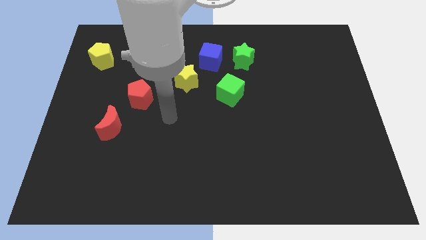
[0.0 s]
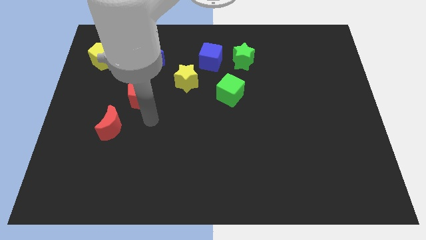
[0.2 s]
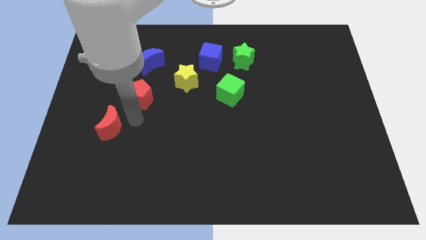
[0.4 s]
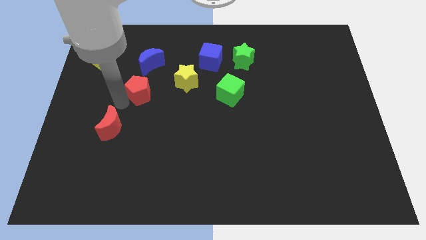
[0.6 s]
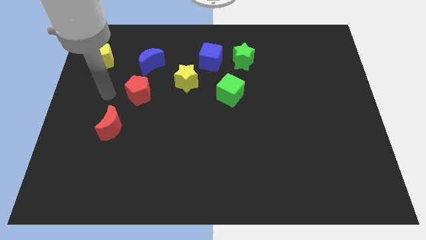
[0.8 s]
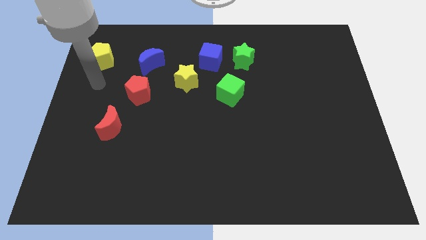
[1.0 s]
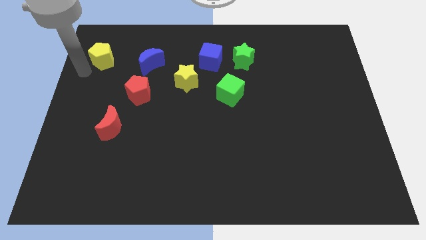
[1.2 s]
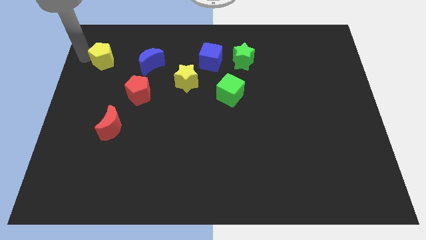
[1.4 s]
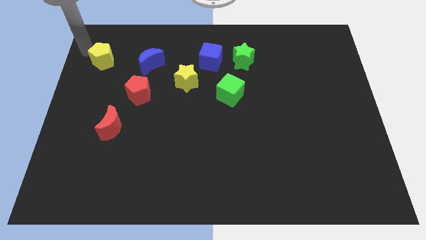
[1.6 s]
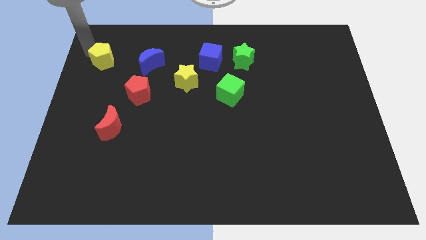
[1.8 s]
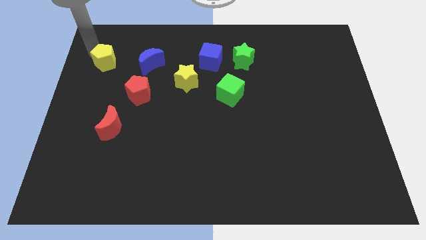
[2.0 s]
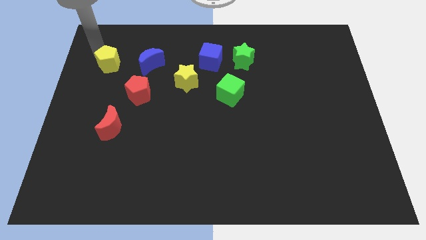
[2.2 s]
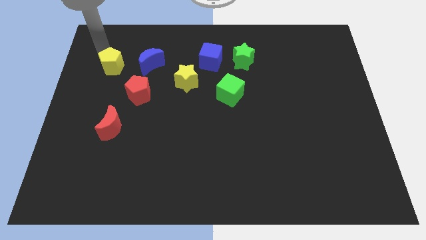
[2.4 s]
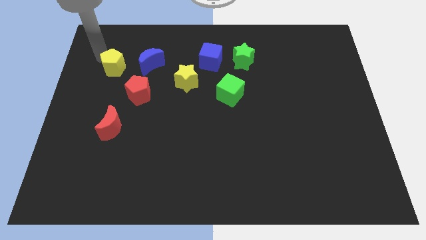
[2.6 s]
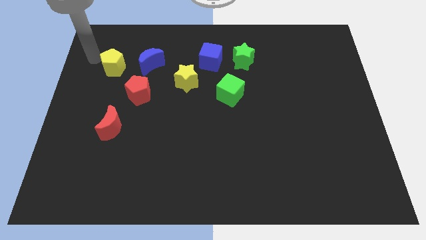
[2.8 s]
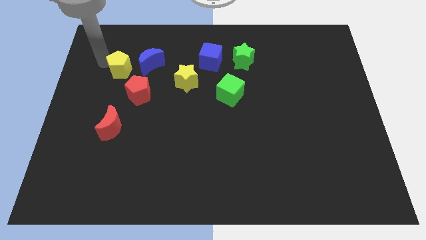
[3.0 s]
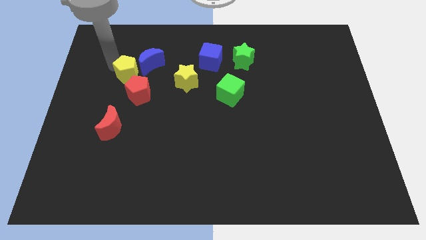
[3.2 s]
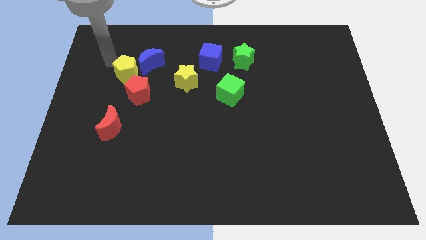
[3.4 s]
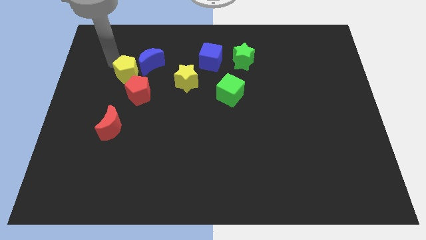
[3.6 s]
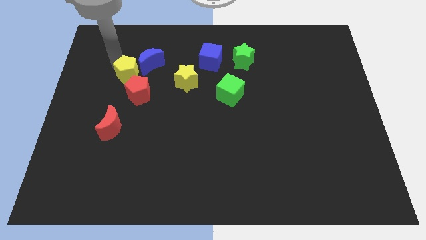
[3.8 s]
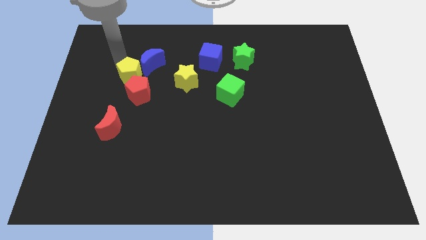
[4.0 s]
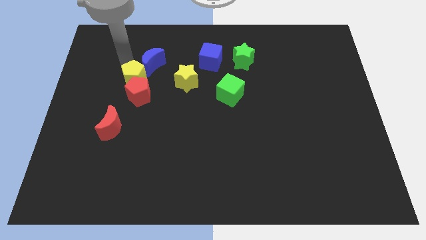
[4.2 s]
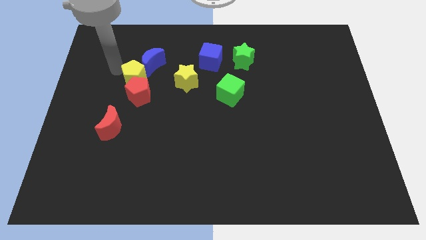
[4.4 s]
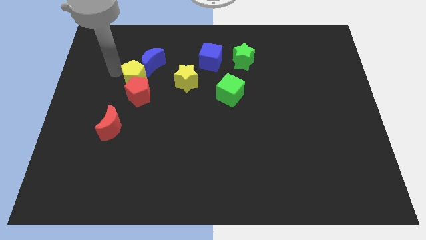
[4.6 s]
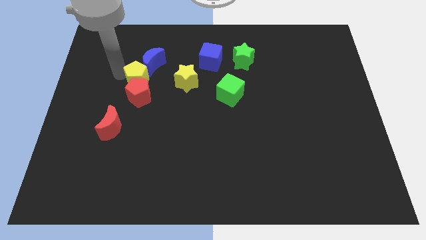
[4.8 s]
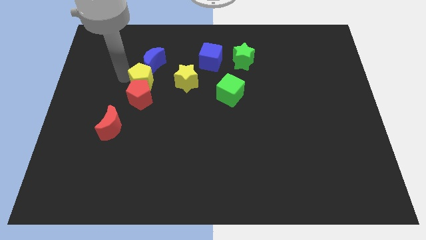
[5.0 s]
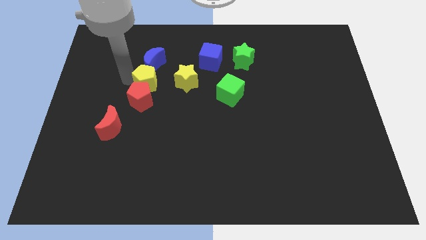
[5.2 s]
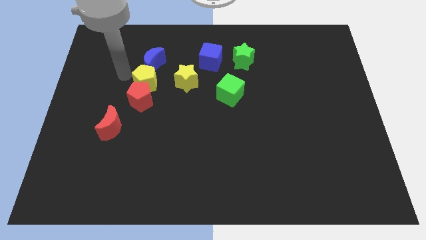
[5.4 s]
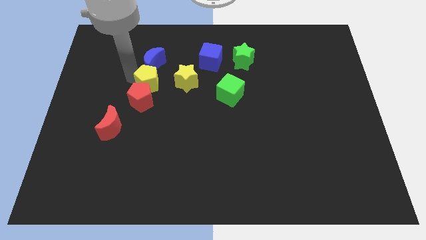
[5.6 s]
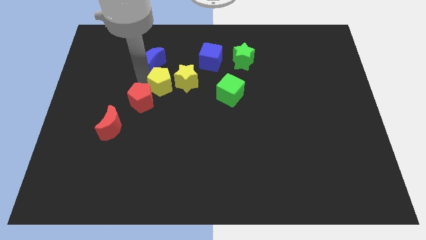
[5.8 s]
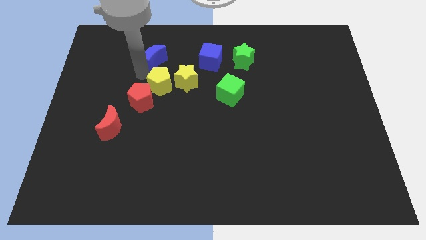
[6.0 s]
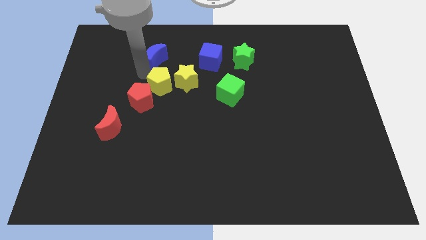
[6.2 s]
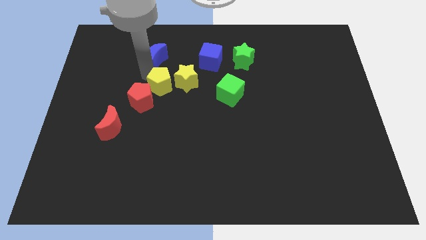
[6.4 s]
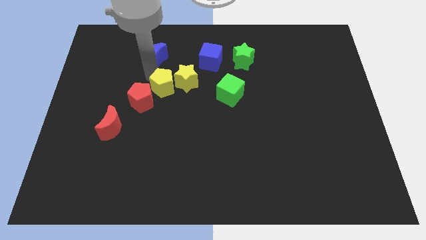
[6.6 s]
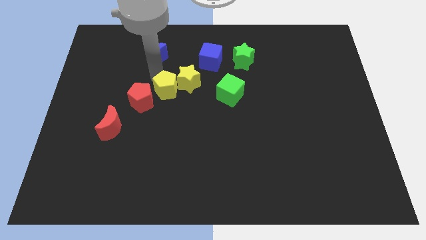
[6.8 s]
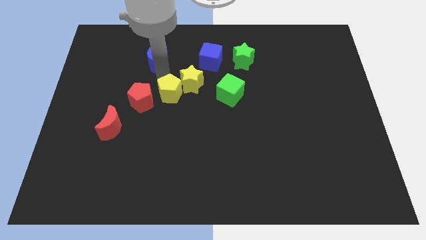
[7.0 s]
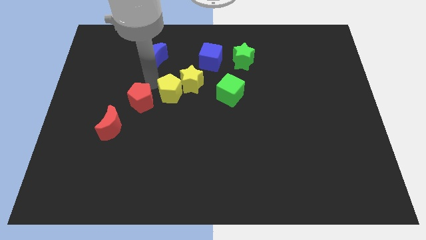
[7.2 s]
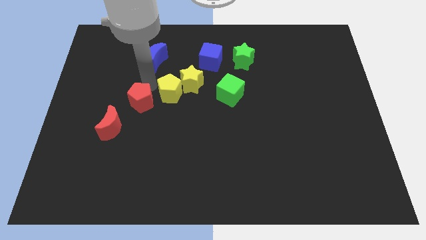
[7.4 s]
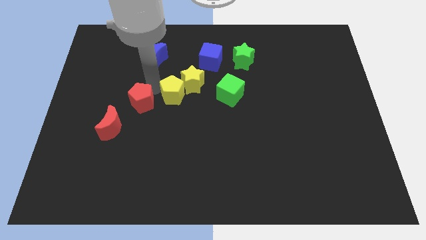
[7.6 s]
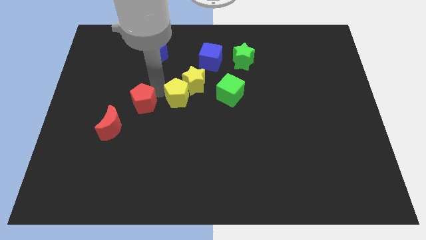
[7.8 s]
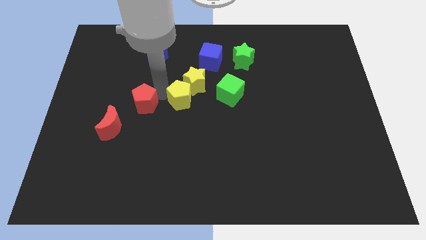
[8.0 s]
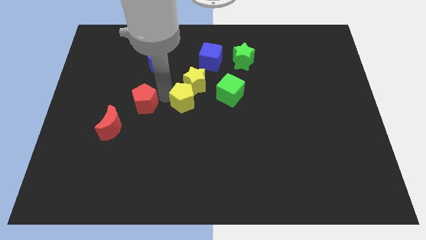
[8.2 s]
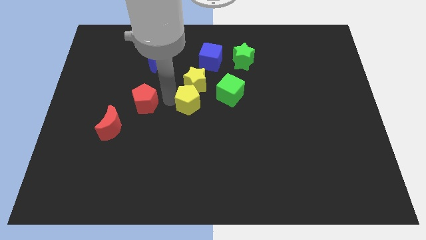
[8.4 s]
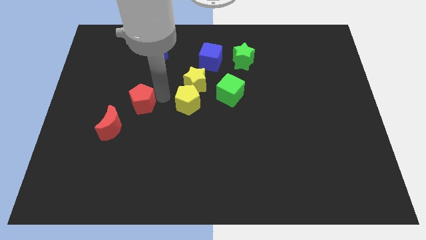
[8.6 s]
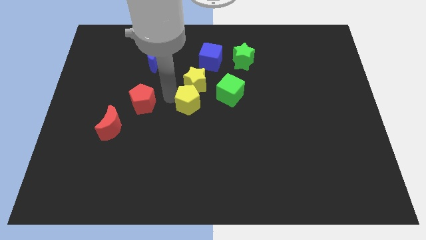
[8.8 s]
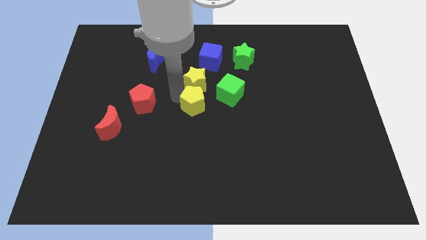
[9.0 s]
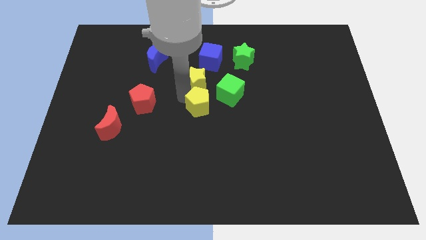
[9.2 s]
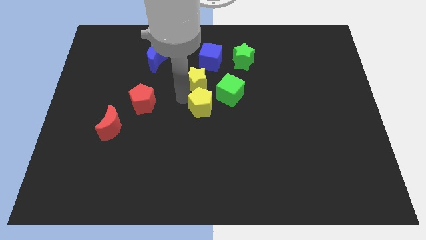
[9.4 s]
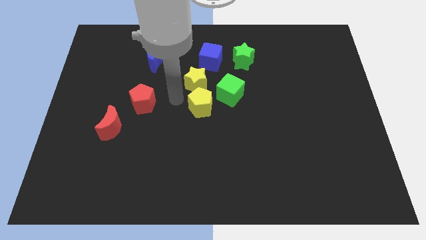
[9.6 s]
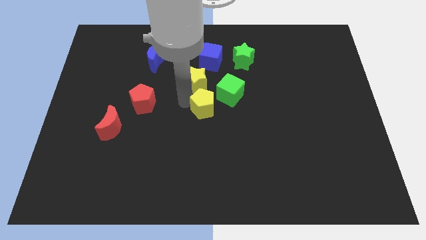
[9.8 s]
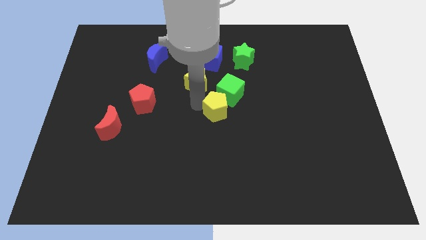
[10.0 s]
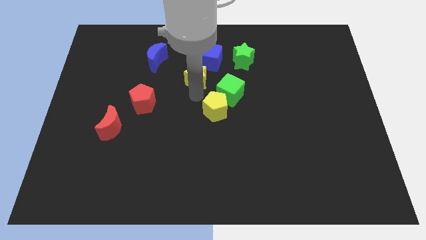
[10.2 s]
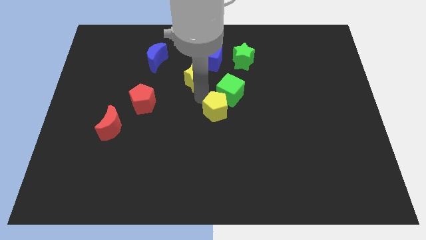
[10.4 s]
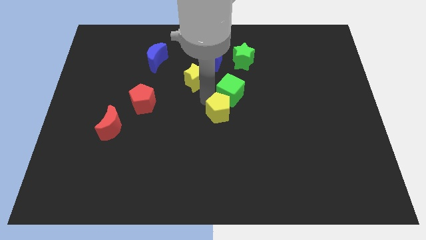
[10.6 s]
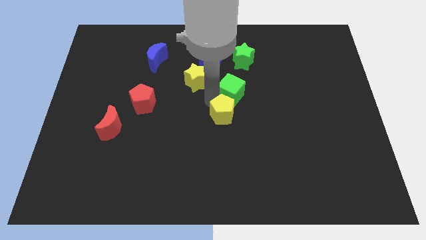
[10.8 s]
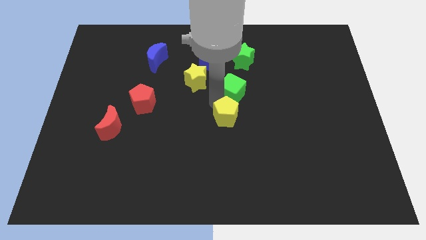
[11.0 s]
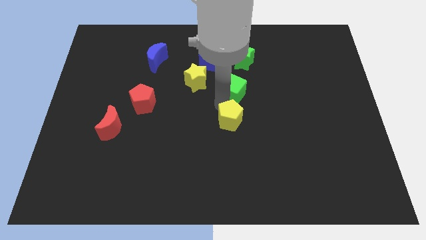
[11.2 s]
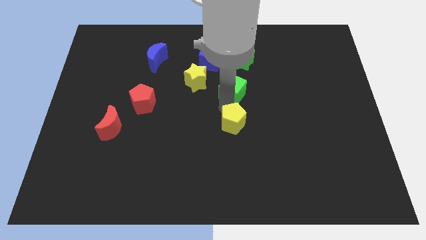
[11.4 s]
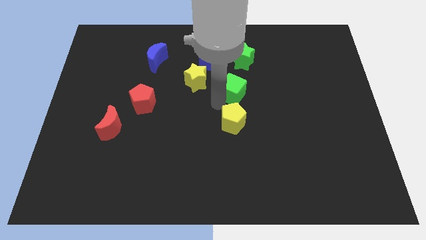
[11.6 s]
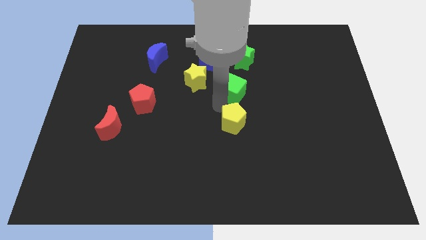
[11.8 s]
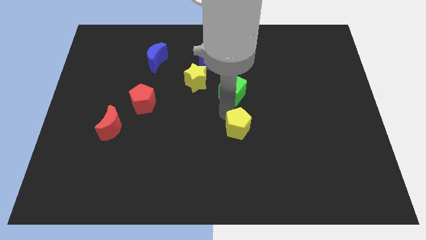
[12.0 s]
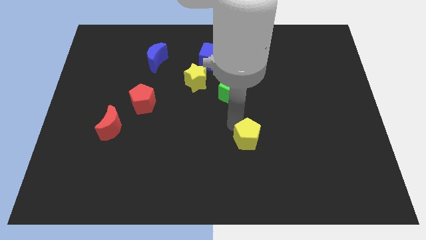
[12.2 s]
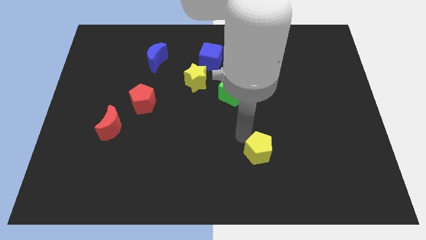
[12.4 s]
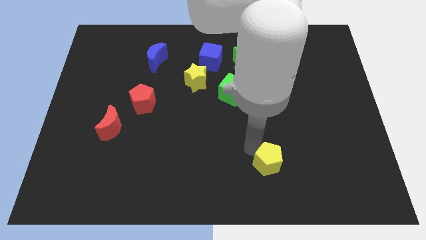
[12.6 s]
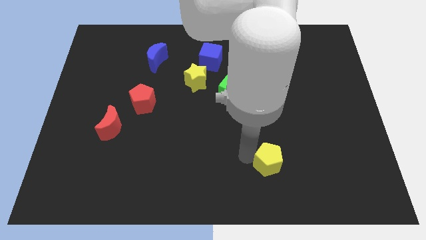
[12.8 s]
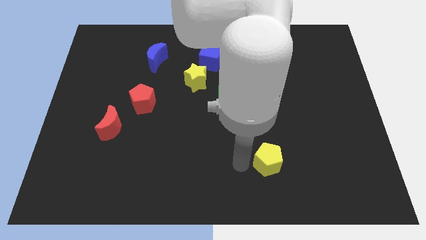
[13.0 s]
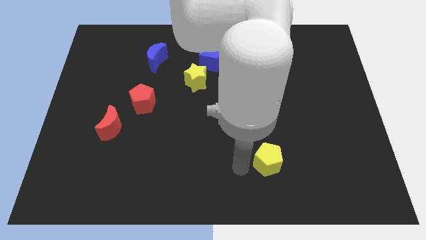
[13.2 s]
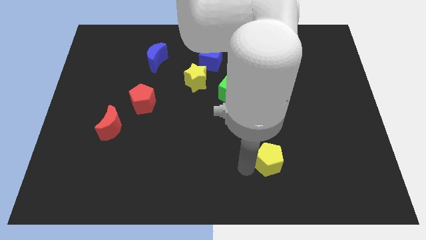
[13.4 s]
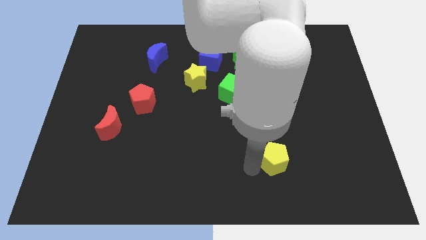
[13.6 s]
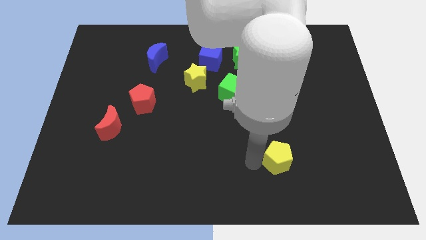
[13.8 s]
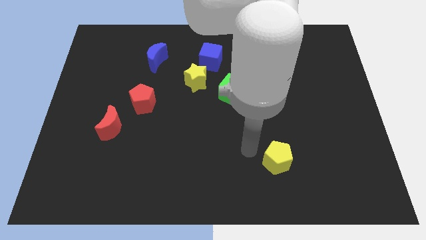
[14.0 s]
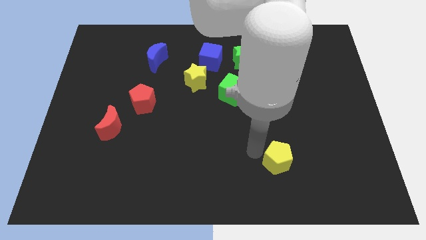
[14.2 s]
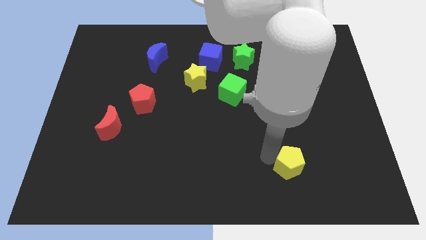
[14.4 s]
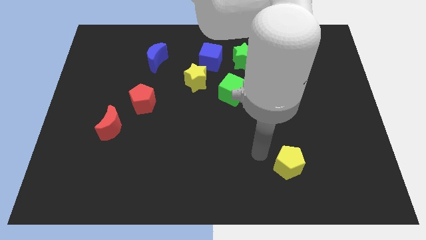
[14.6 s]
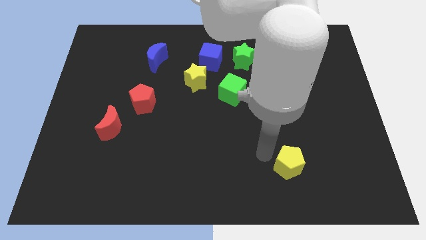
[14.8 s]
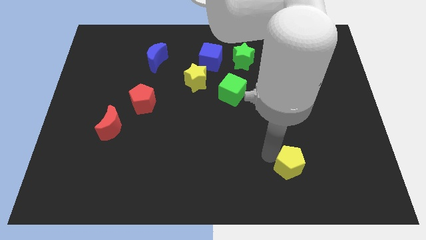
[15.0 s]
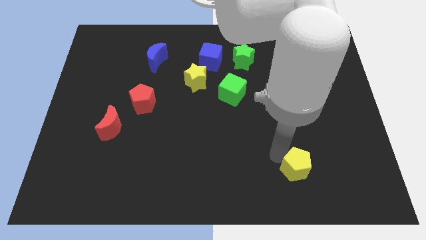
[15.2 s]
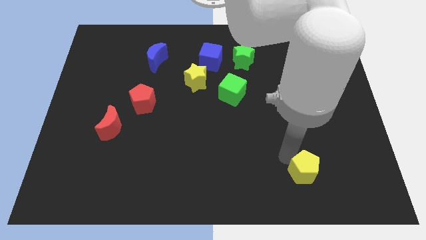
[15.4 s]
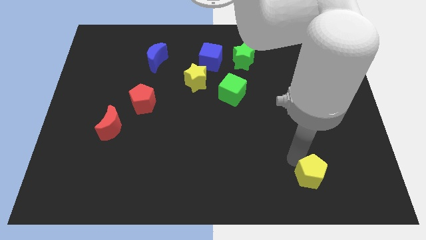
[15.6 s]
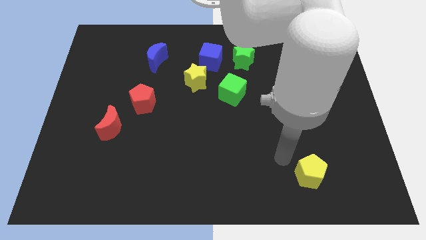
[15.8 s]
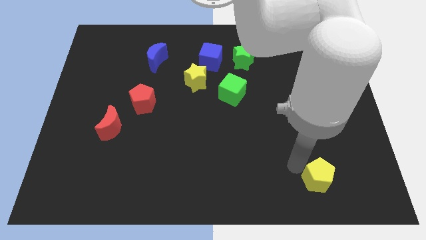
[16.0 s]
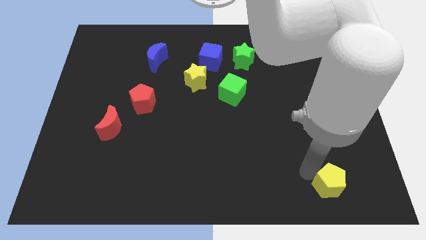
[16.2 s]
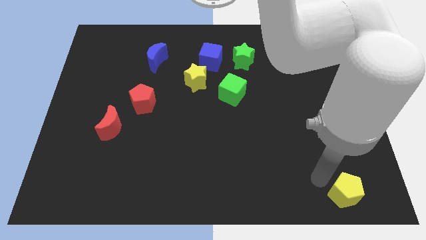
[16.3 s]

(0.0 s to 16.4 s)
move the yellow pentagon to the bottom right corner
